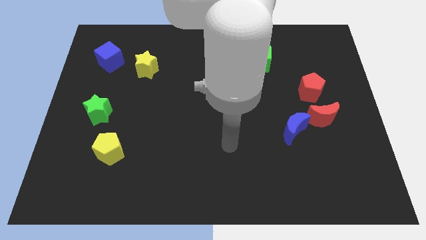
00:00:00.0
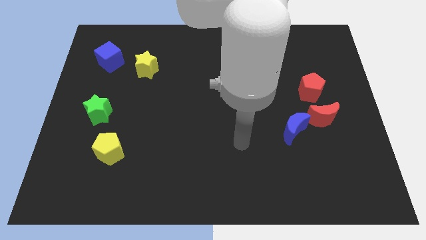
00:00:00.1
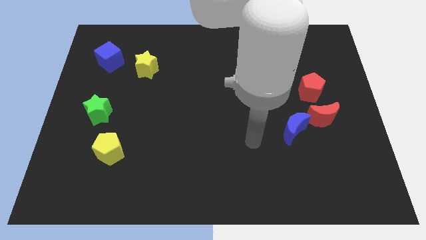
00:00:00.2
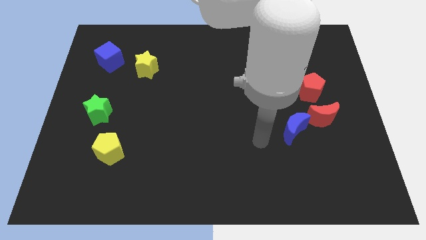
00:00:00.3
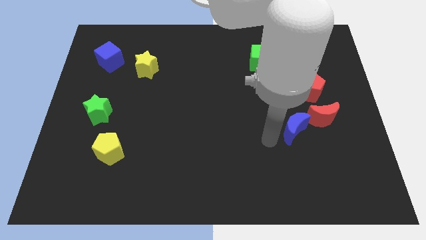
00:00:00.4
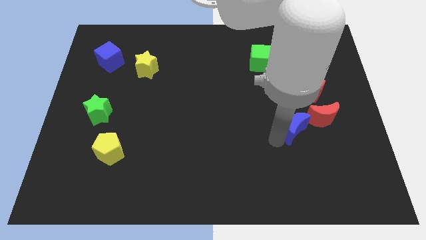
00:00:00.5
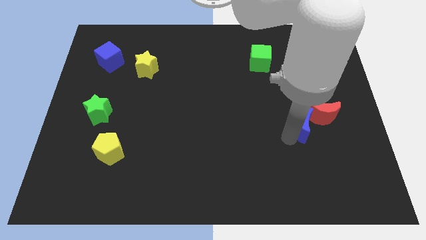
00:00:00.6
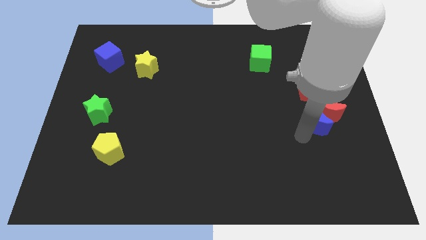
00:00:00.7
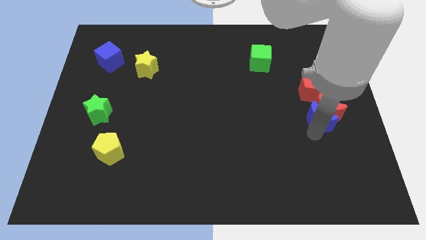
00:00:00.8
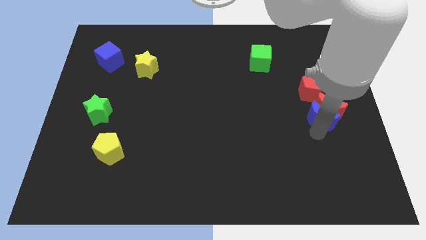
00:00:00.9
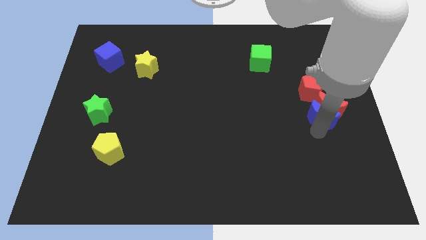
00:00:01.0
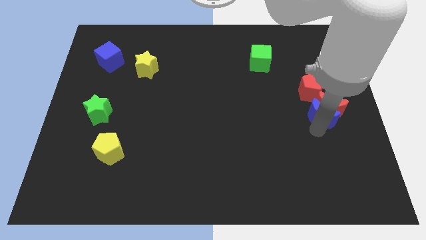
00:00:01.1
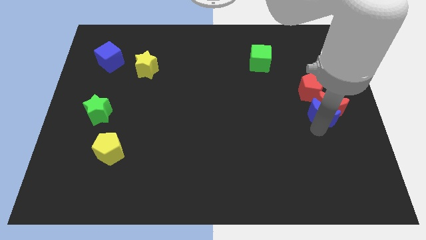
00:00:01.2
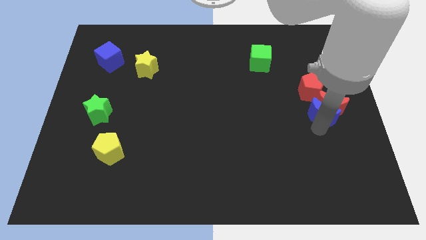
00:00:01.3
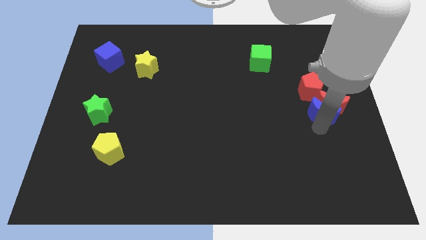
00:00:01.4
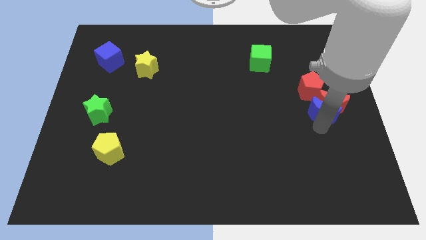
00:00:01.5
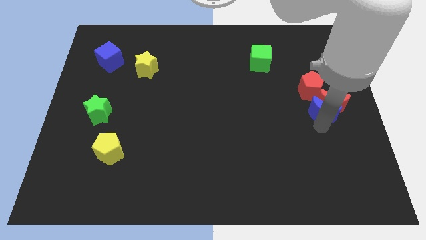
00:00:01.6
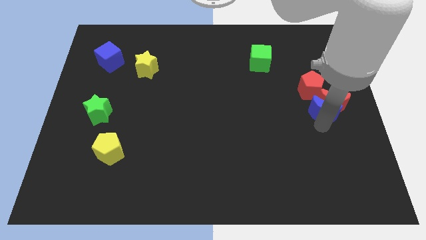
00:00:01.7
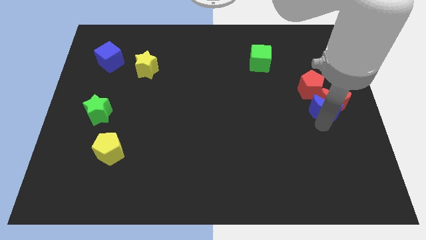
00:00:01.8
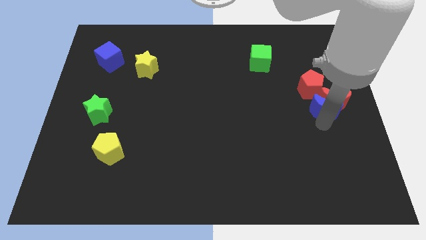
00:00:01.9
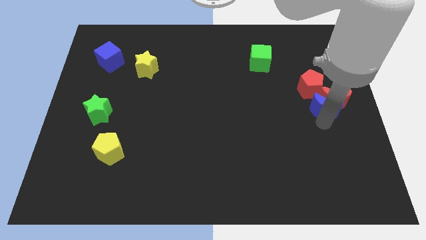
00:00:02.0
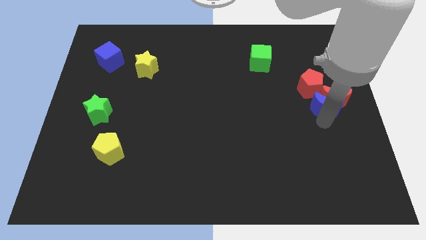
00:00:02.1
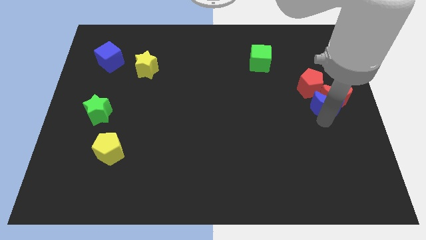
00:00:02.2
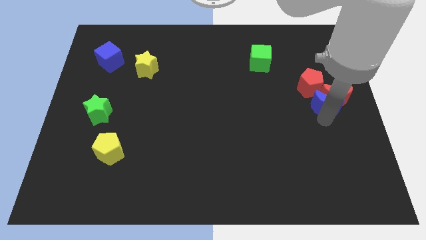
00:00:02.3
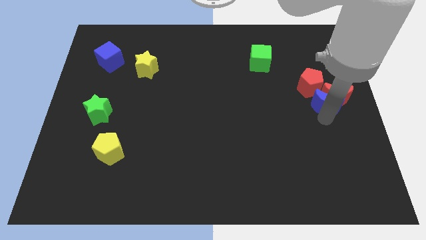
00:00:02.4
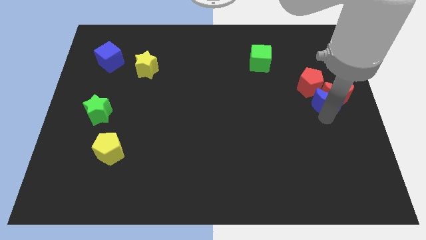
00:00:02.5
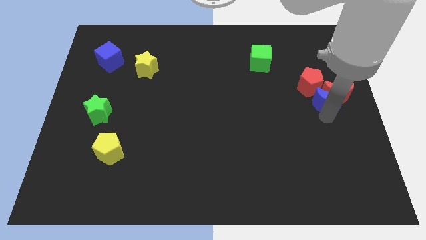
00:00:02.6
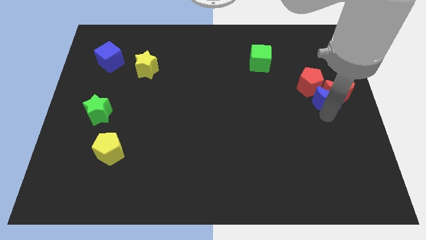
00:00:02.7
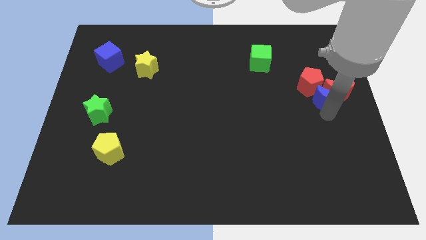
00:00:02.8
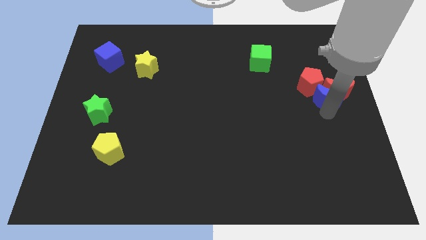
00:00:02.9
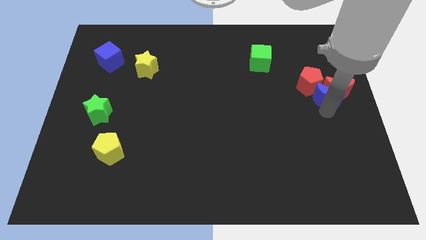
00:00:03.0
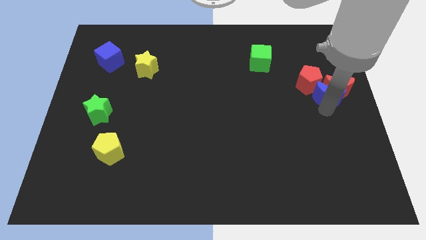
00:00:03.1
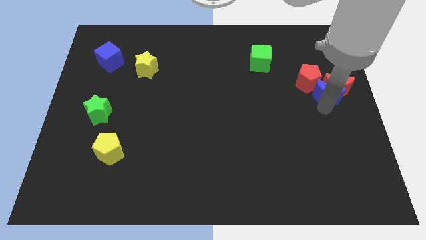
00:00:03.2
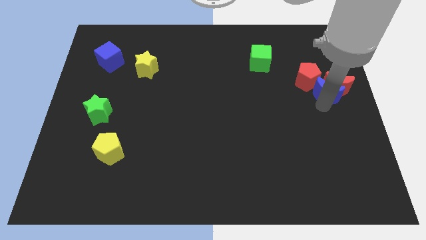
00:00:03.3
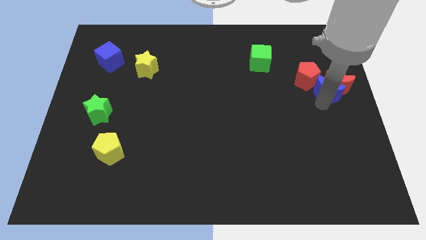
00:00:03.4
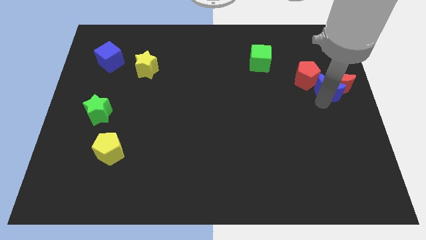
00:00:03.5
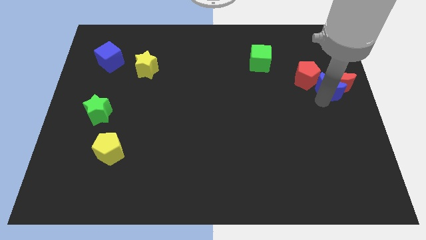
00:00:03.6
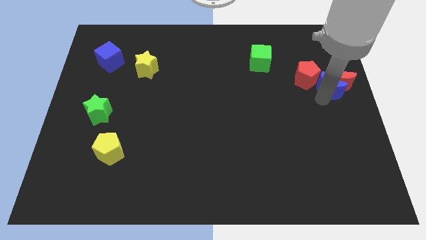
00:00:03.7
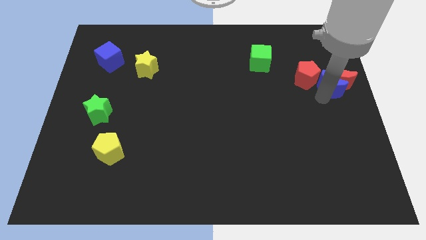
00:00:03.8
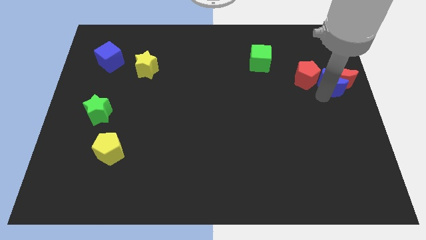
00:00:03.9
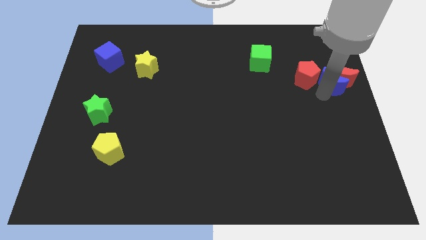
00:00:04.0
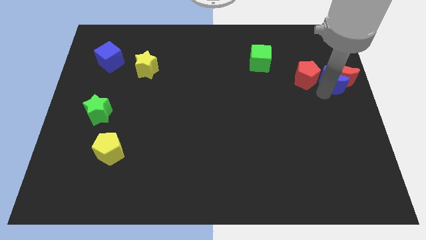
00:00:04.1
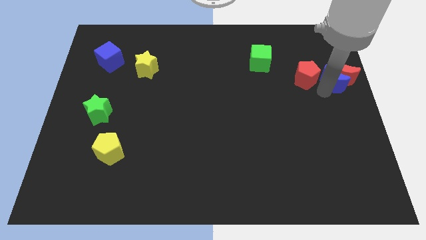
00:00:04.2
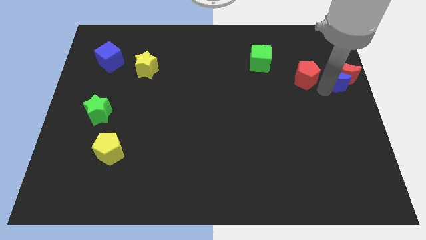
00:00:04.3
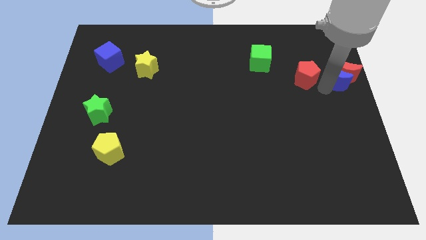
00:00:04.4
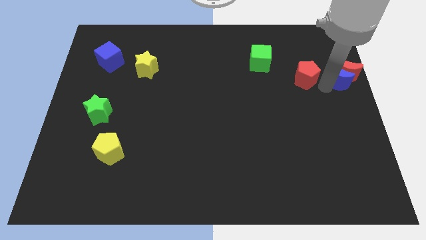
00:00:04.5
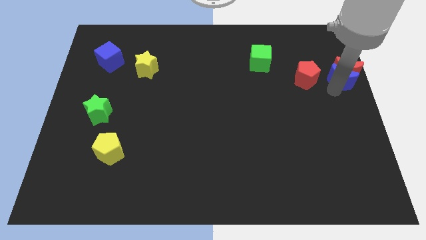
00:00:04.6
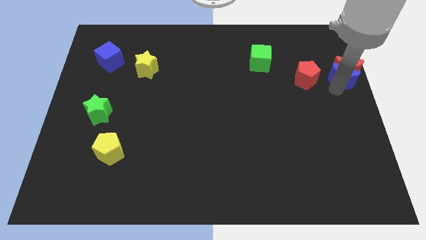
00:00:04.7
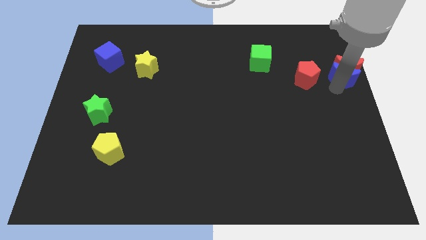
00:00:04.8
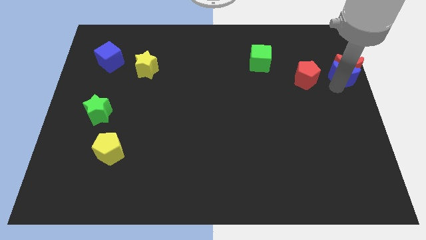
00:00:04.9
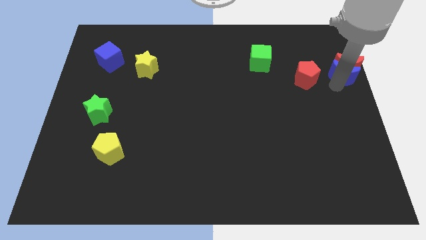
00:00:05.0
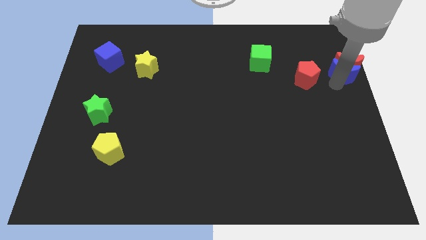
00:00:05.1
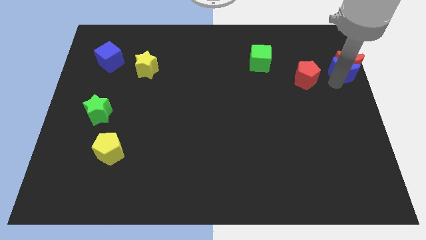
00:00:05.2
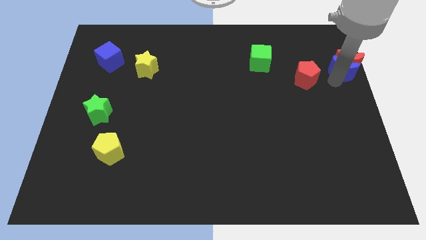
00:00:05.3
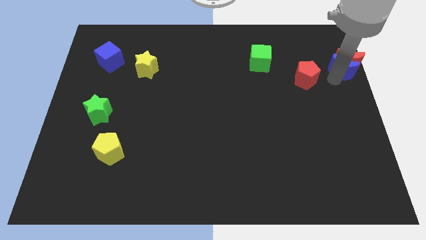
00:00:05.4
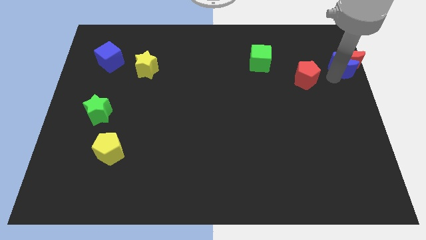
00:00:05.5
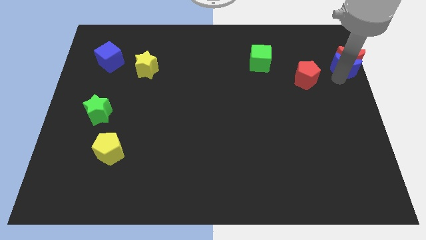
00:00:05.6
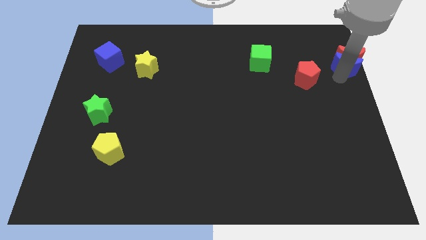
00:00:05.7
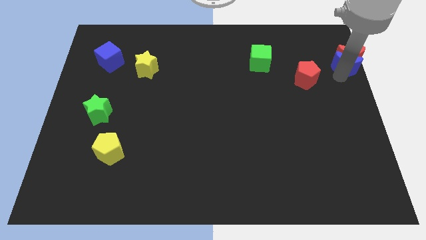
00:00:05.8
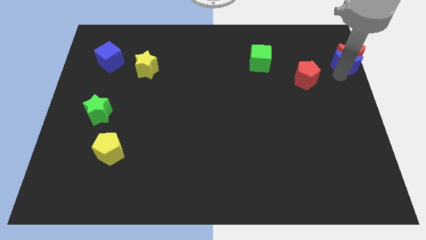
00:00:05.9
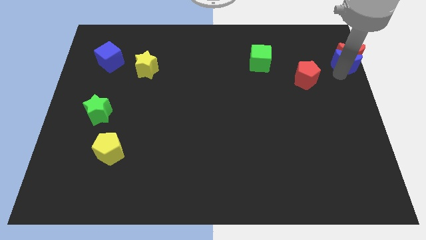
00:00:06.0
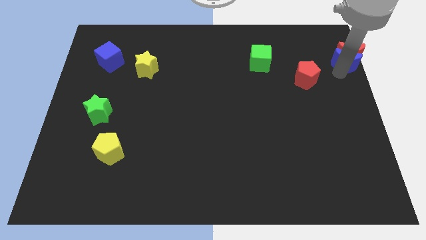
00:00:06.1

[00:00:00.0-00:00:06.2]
push the red moon to the upper right corner
